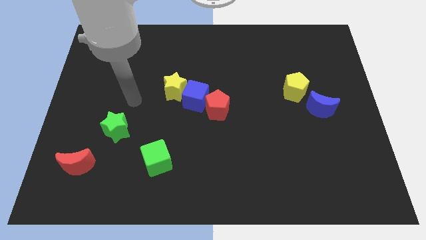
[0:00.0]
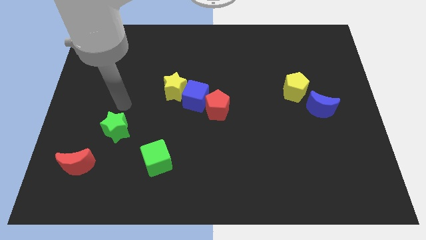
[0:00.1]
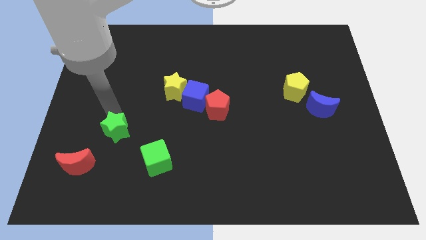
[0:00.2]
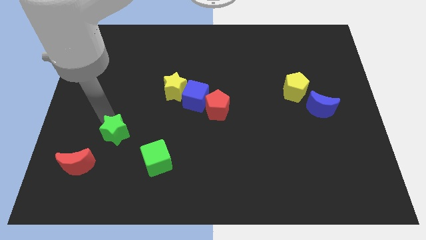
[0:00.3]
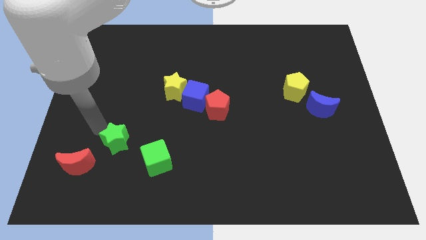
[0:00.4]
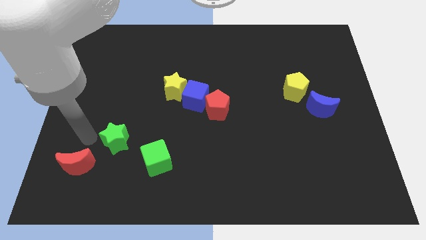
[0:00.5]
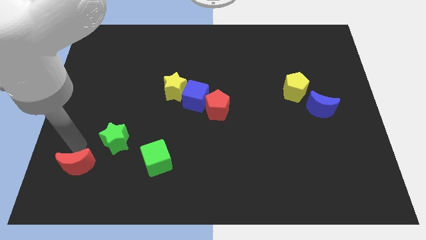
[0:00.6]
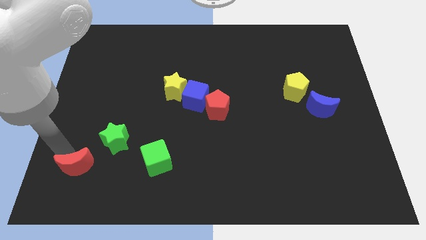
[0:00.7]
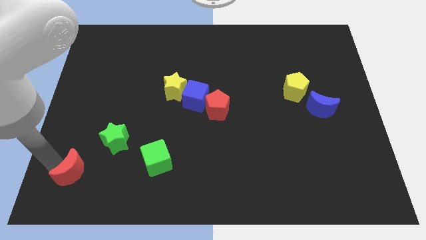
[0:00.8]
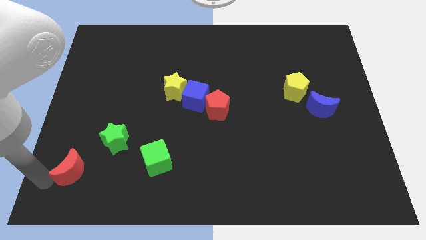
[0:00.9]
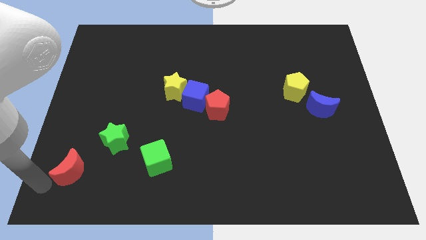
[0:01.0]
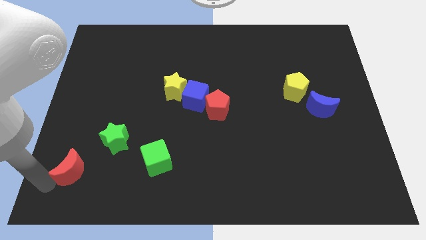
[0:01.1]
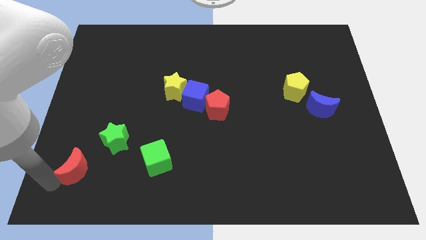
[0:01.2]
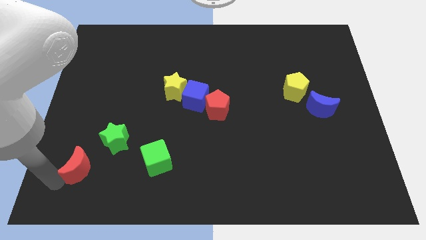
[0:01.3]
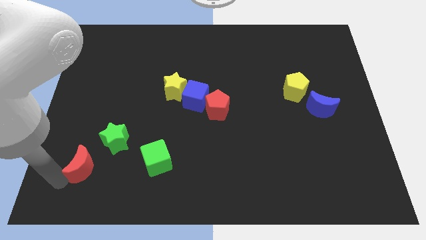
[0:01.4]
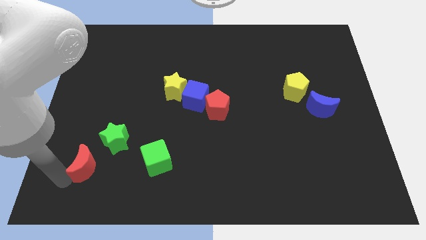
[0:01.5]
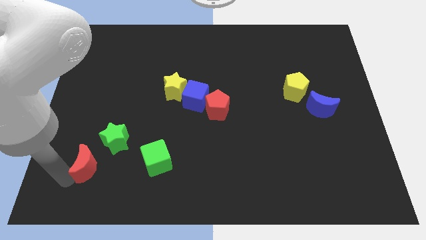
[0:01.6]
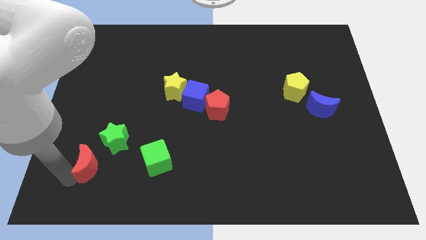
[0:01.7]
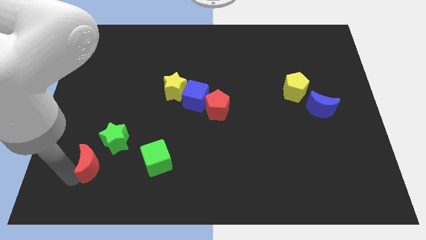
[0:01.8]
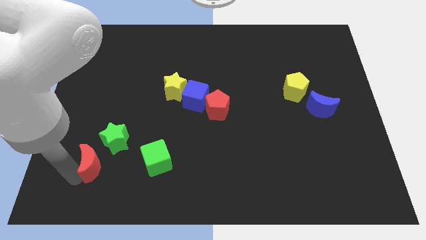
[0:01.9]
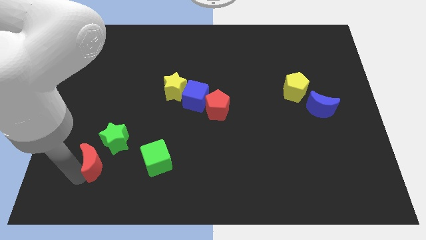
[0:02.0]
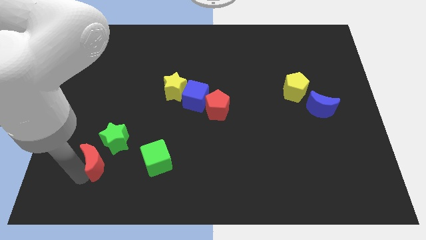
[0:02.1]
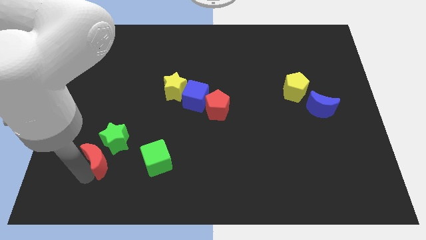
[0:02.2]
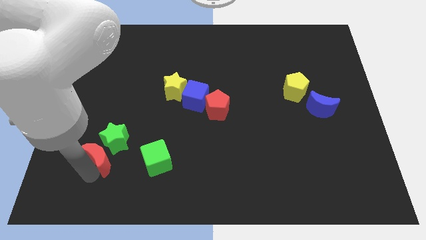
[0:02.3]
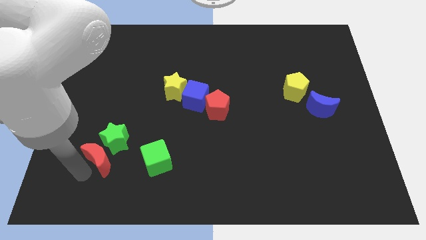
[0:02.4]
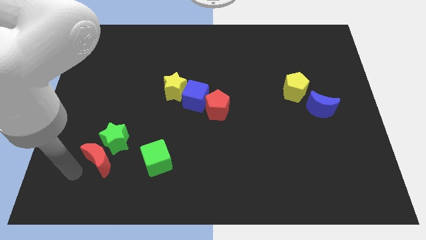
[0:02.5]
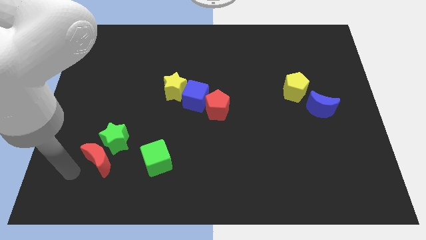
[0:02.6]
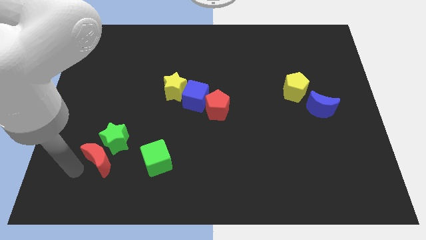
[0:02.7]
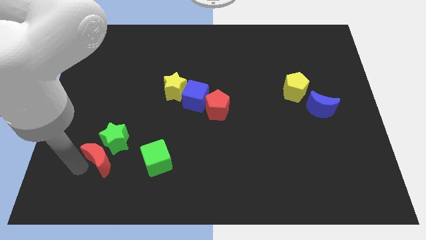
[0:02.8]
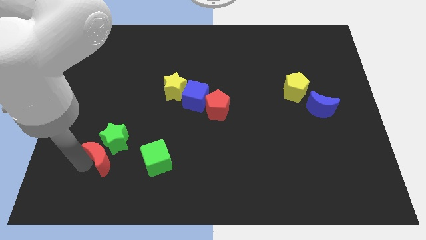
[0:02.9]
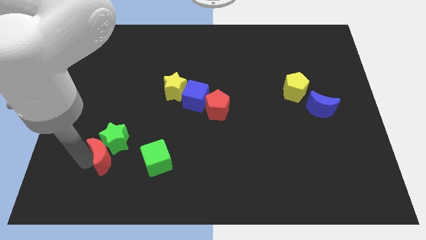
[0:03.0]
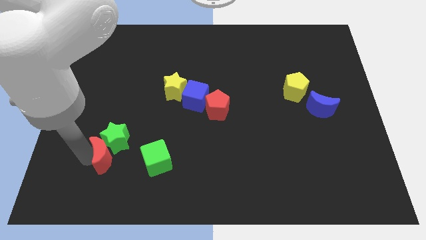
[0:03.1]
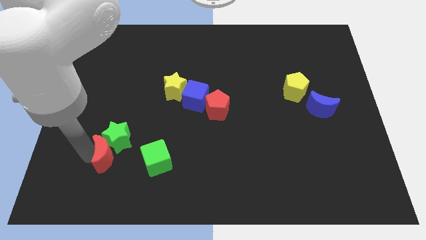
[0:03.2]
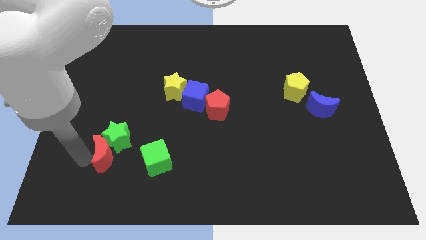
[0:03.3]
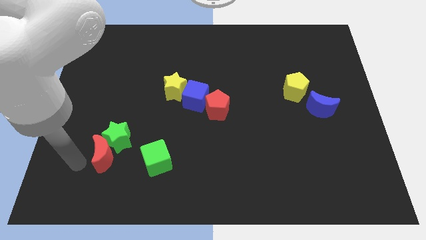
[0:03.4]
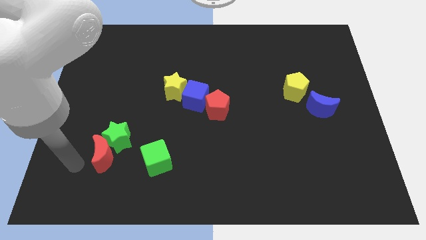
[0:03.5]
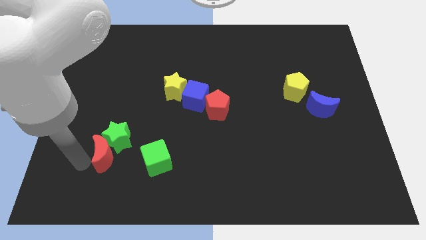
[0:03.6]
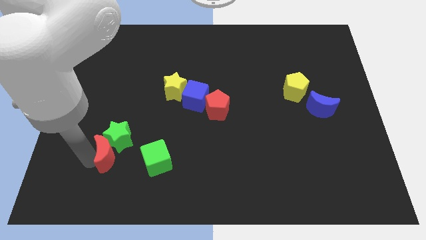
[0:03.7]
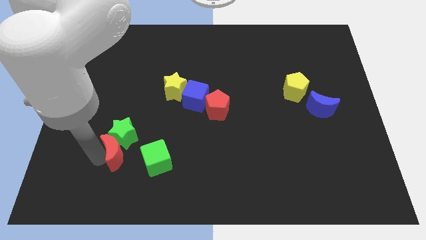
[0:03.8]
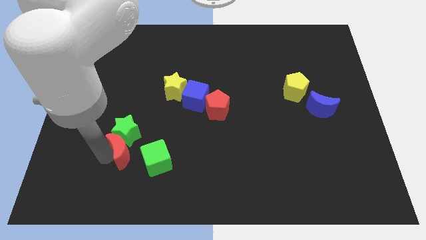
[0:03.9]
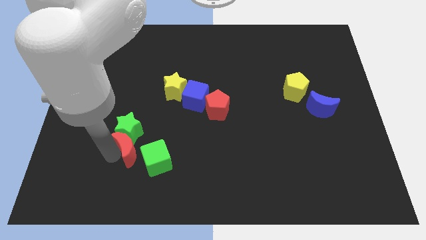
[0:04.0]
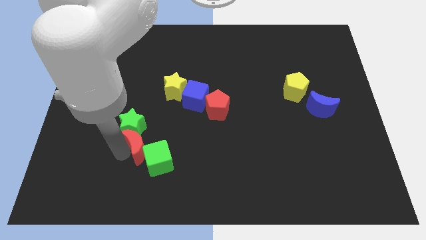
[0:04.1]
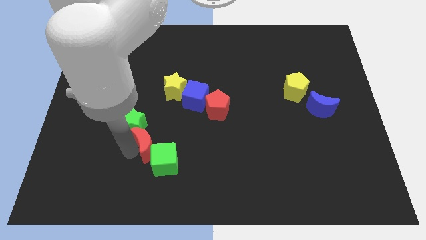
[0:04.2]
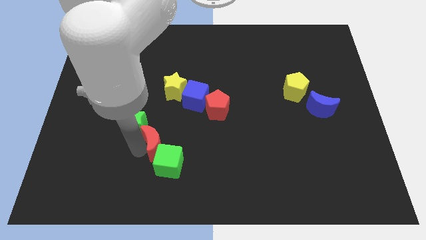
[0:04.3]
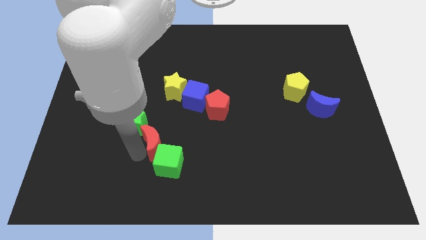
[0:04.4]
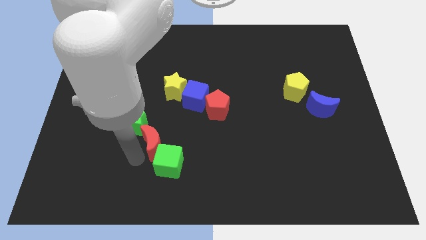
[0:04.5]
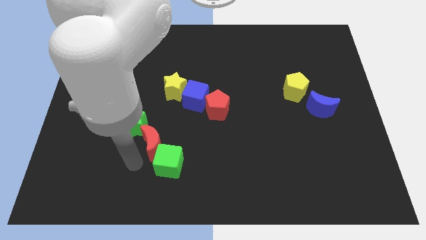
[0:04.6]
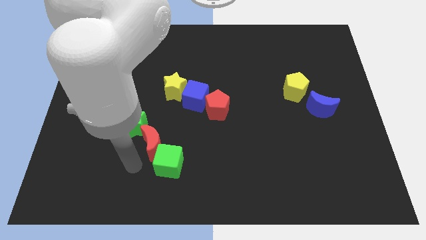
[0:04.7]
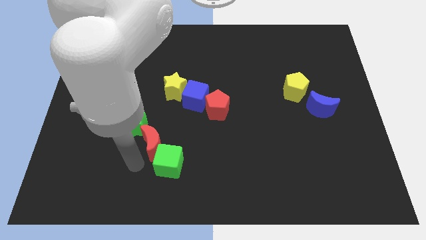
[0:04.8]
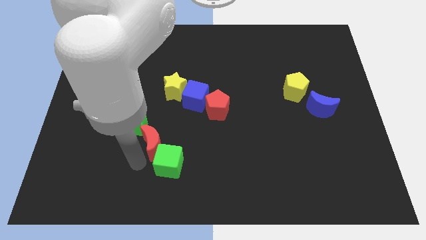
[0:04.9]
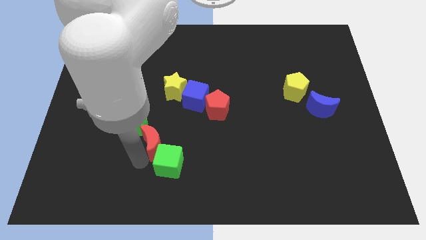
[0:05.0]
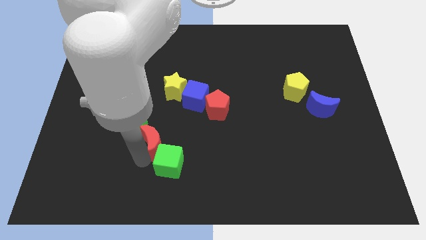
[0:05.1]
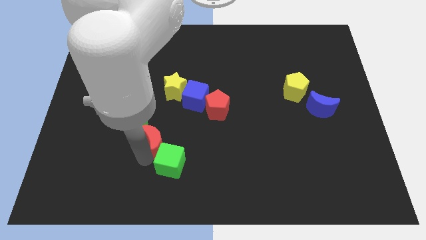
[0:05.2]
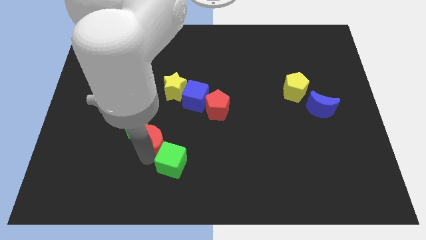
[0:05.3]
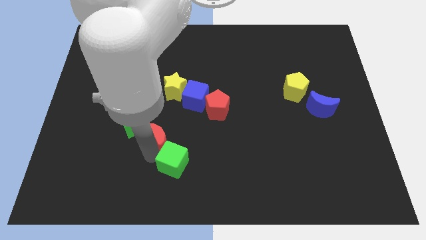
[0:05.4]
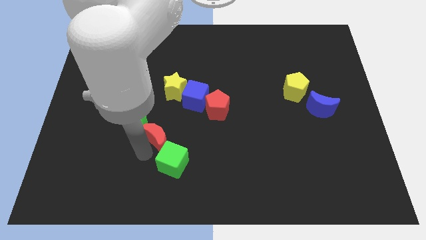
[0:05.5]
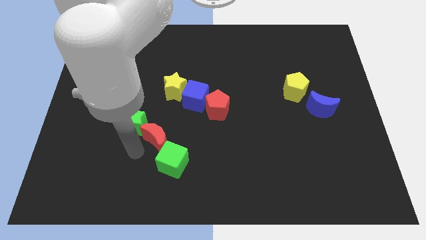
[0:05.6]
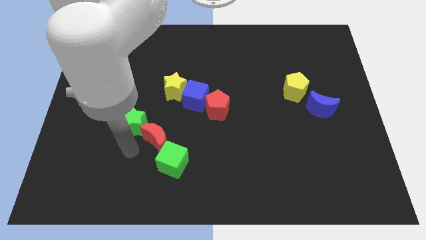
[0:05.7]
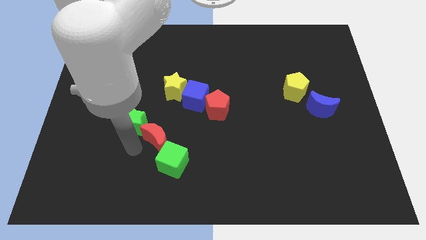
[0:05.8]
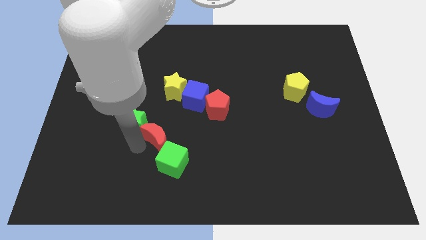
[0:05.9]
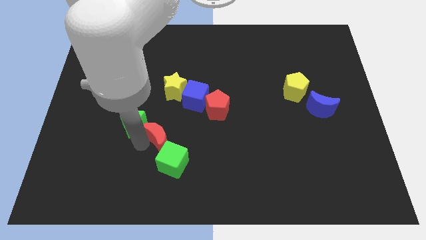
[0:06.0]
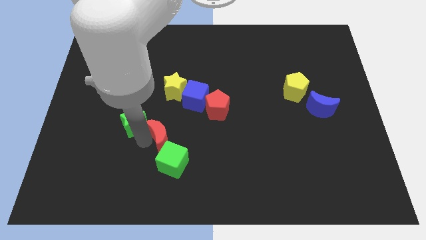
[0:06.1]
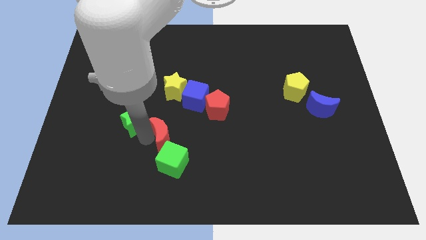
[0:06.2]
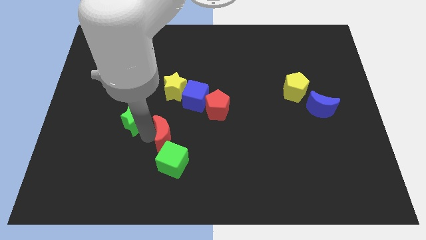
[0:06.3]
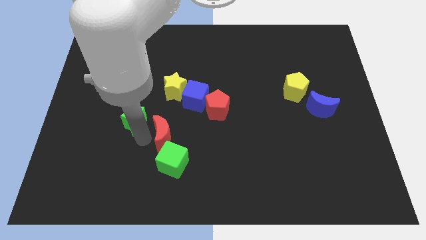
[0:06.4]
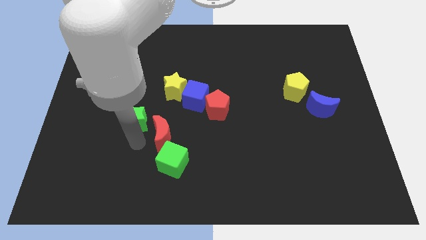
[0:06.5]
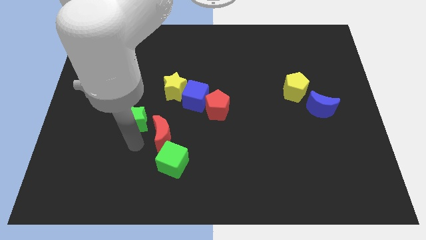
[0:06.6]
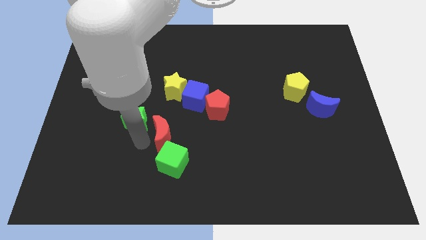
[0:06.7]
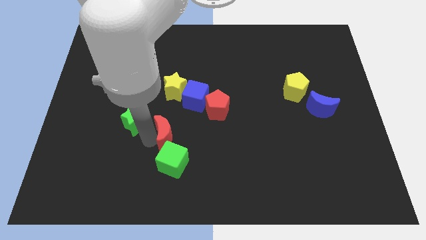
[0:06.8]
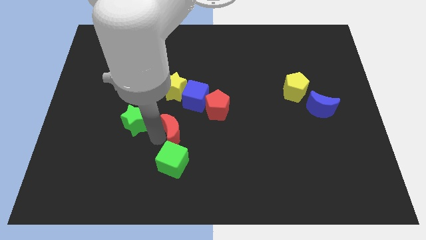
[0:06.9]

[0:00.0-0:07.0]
put the red moon to the bottom left side of the red pentagon
